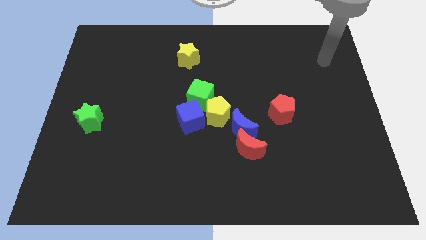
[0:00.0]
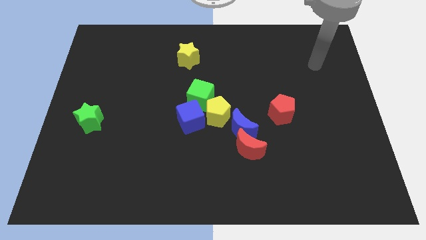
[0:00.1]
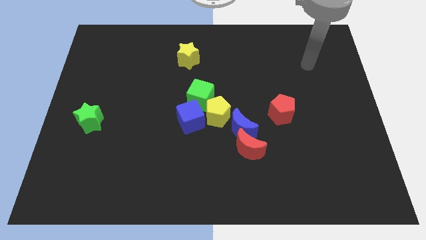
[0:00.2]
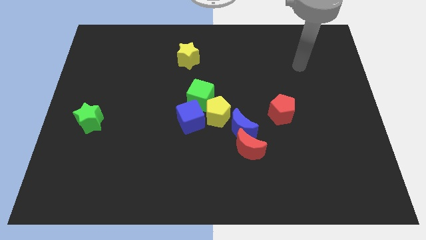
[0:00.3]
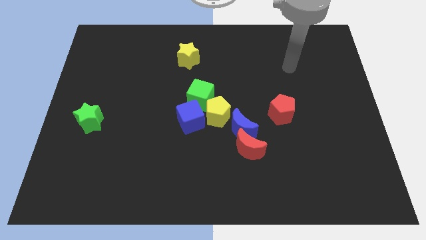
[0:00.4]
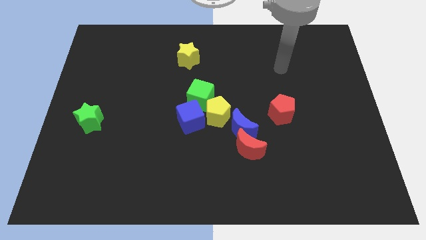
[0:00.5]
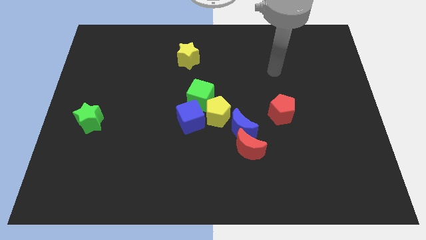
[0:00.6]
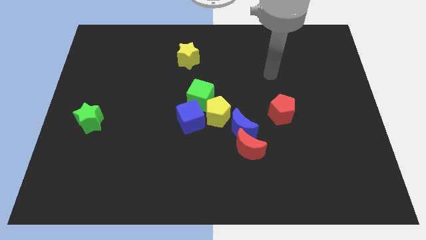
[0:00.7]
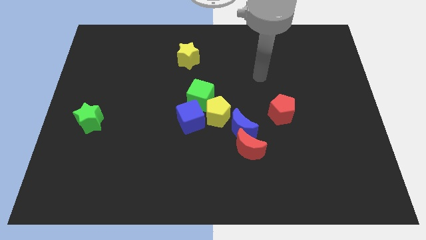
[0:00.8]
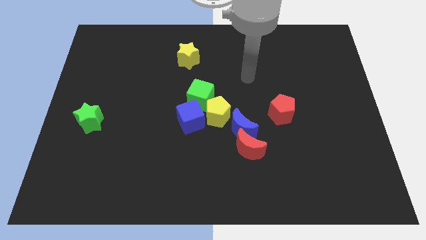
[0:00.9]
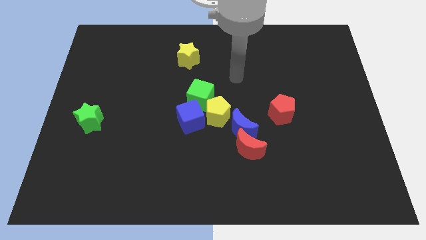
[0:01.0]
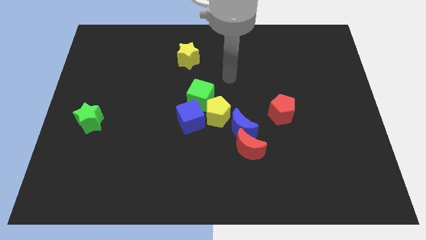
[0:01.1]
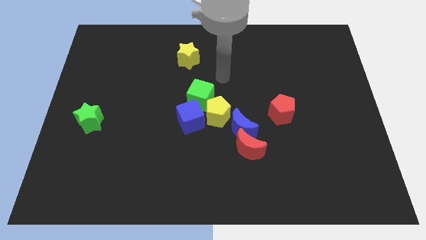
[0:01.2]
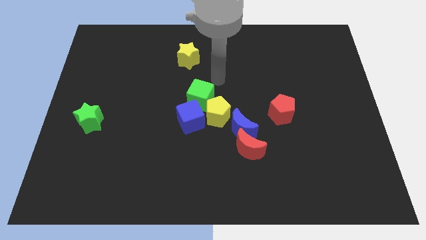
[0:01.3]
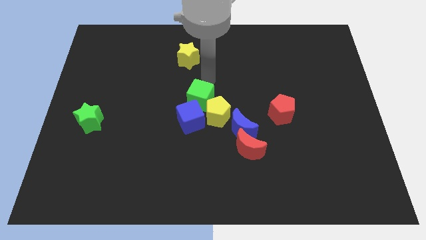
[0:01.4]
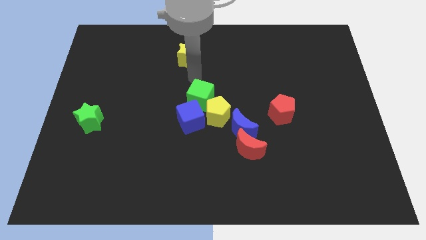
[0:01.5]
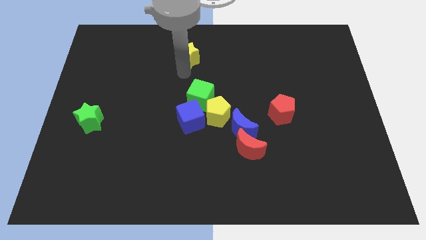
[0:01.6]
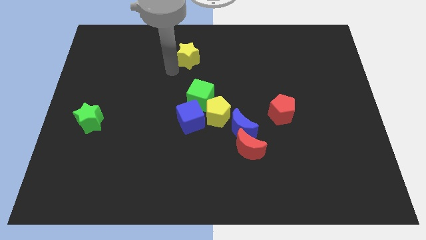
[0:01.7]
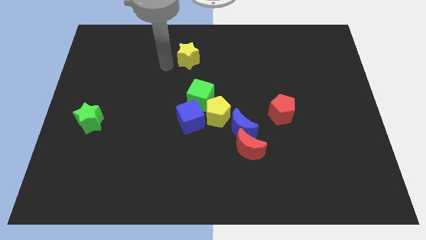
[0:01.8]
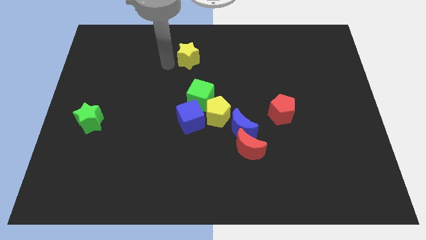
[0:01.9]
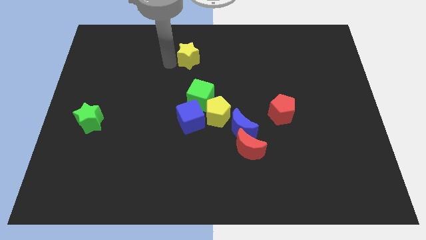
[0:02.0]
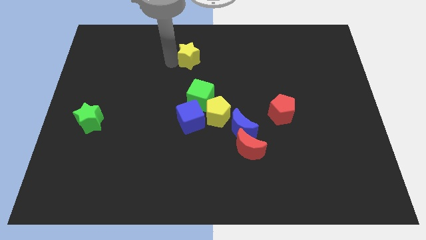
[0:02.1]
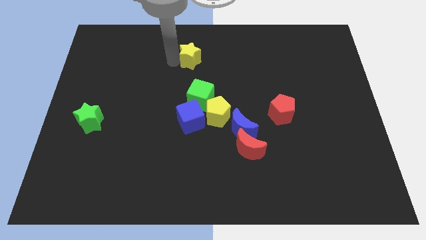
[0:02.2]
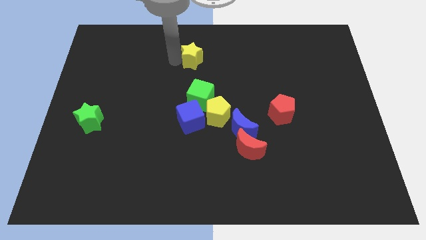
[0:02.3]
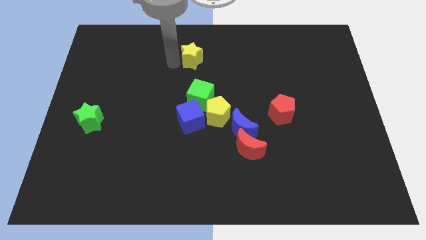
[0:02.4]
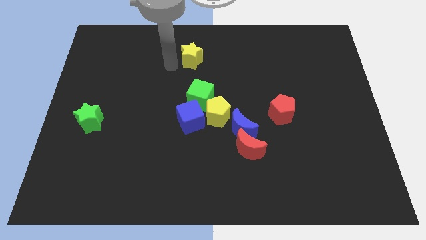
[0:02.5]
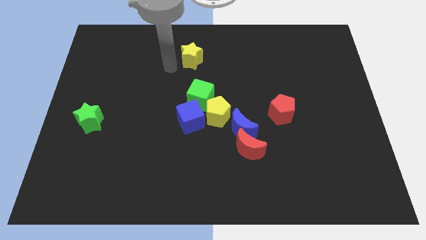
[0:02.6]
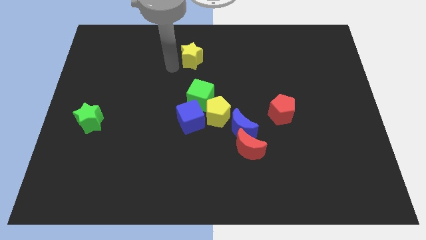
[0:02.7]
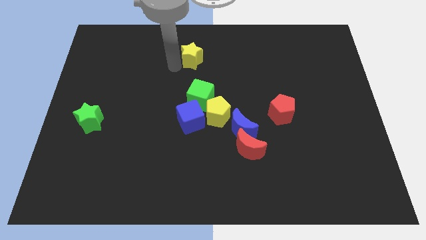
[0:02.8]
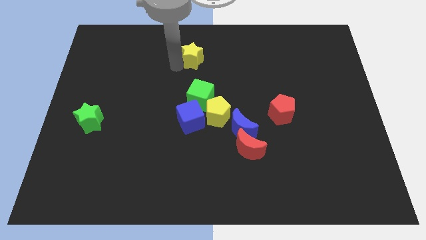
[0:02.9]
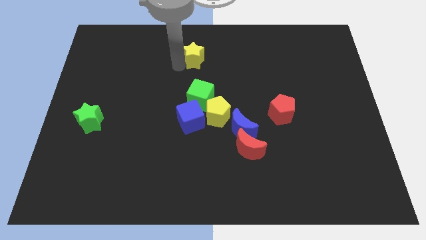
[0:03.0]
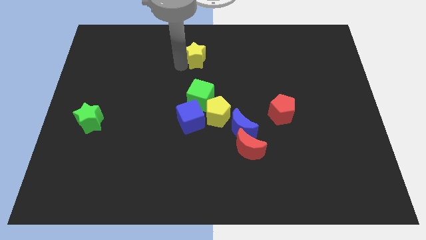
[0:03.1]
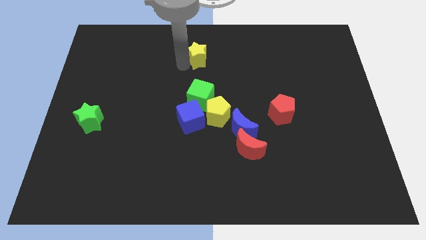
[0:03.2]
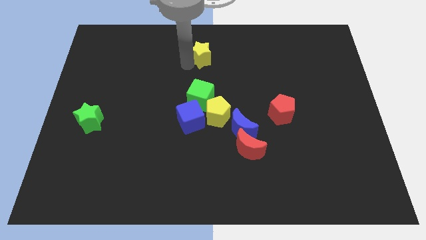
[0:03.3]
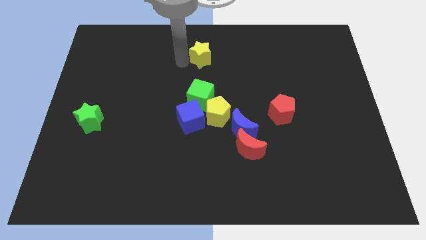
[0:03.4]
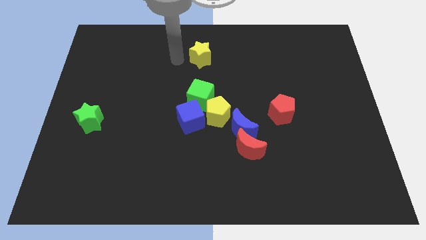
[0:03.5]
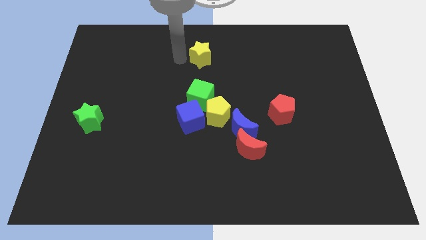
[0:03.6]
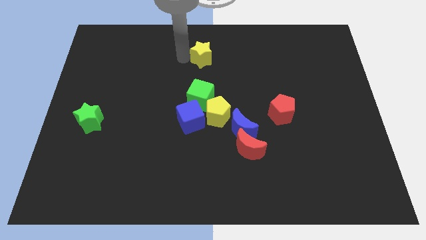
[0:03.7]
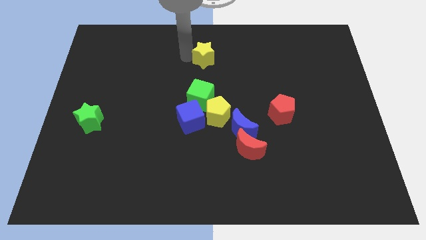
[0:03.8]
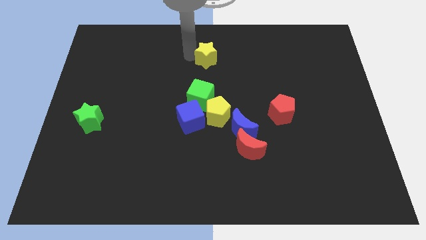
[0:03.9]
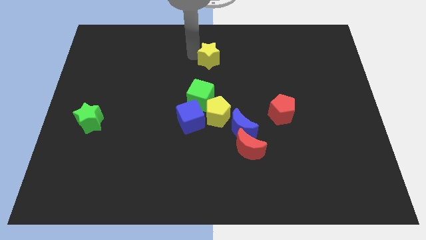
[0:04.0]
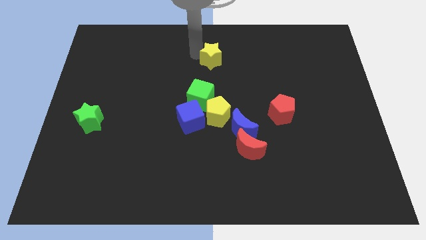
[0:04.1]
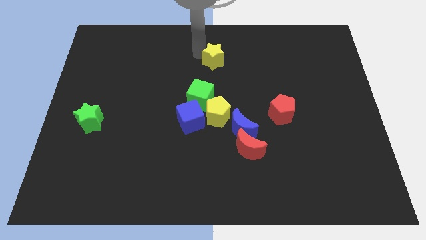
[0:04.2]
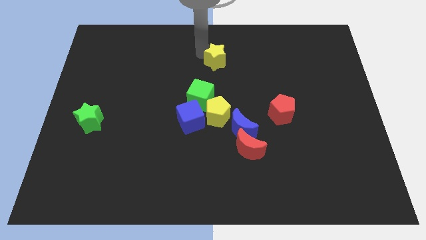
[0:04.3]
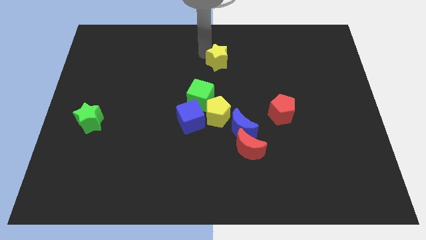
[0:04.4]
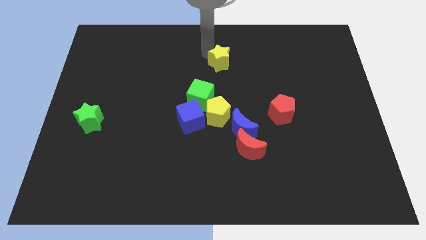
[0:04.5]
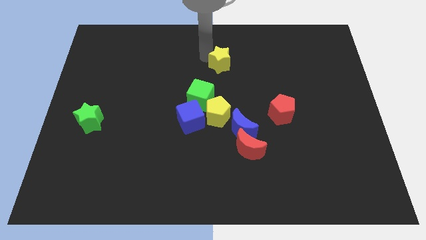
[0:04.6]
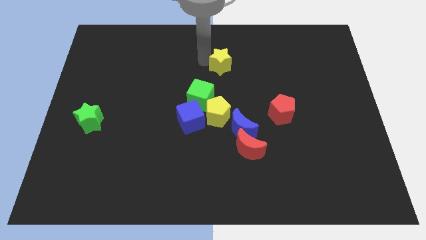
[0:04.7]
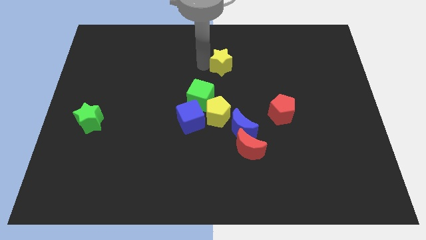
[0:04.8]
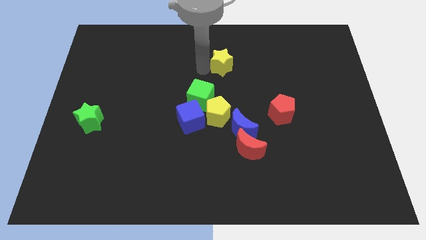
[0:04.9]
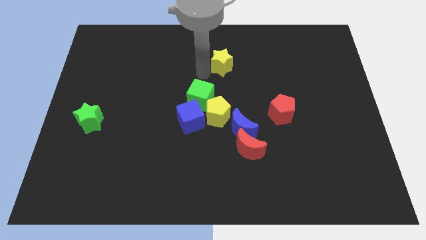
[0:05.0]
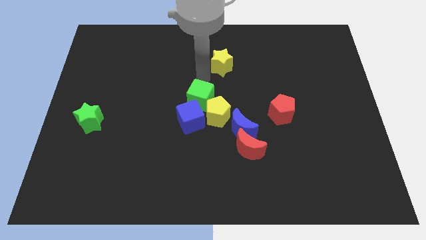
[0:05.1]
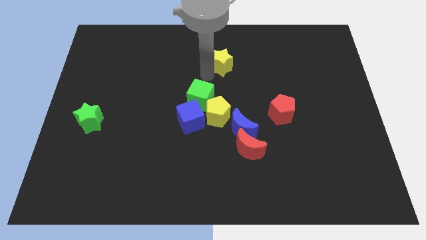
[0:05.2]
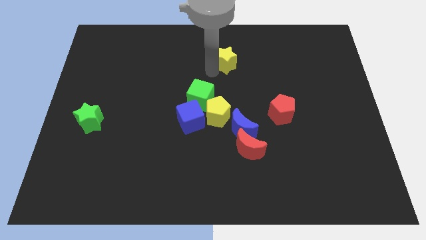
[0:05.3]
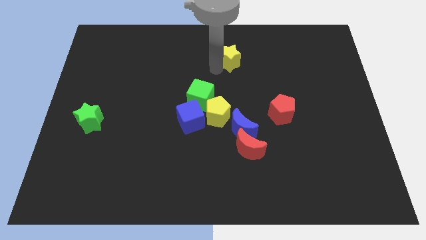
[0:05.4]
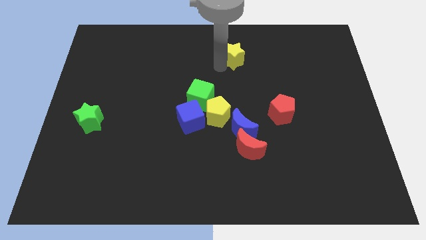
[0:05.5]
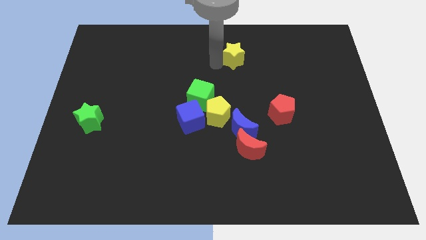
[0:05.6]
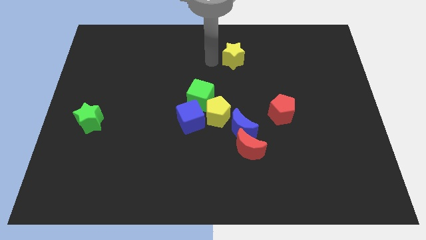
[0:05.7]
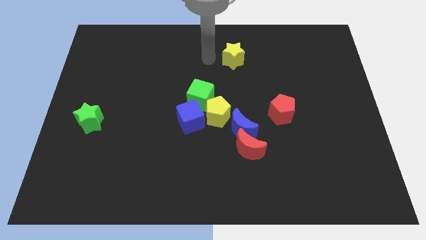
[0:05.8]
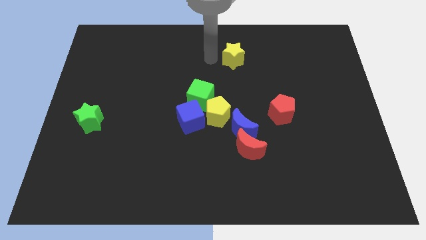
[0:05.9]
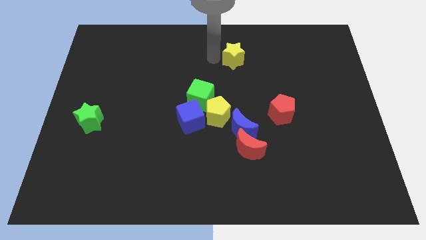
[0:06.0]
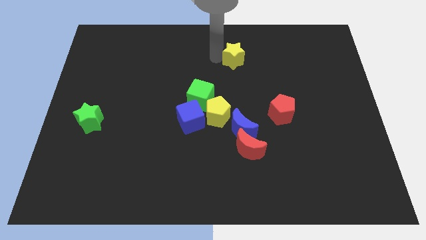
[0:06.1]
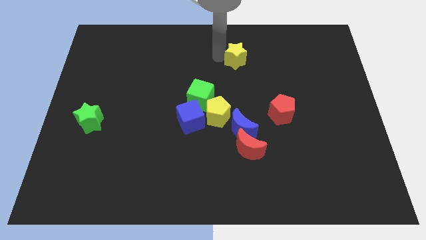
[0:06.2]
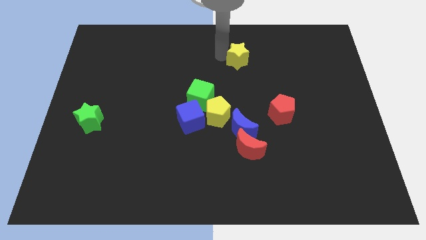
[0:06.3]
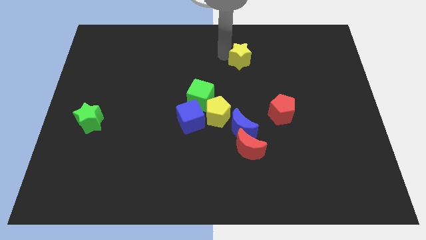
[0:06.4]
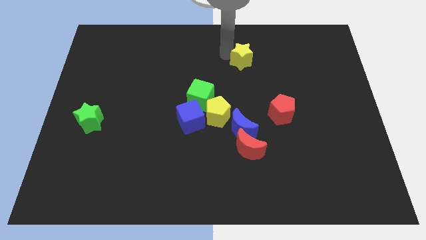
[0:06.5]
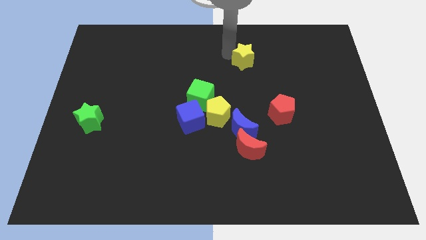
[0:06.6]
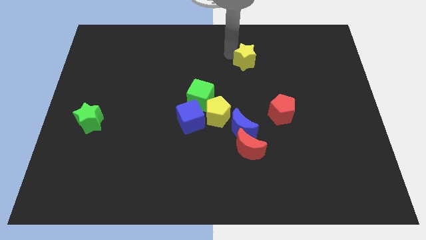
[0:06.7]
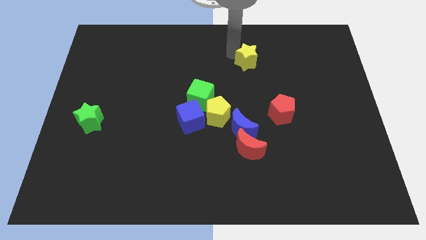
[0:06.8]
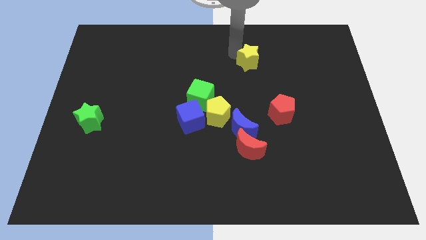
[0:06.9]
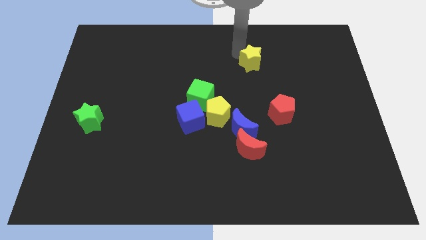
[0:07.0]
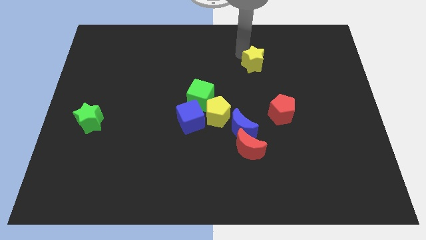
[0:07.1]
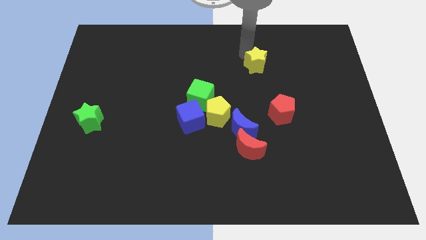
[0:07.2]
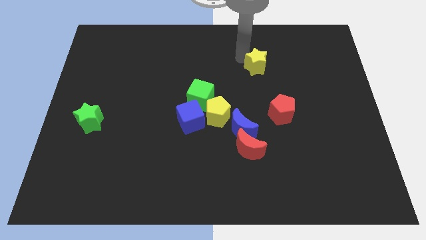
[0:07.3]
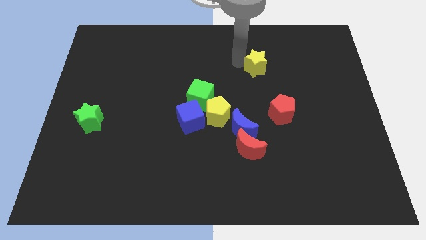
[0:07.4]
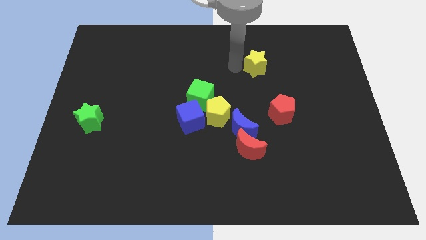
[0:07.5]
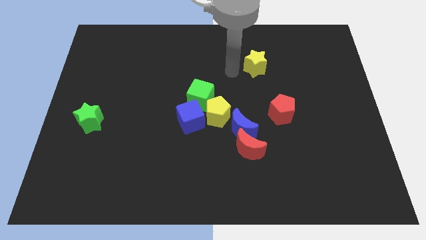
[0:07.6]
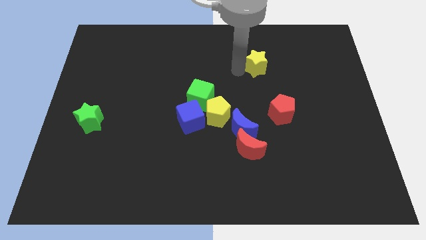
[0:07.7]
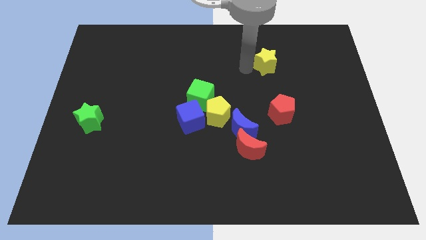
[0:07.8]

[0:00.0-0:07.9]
move the yellow star to the right
